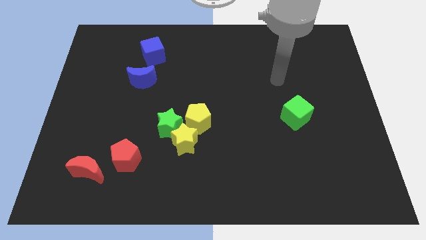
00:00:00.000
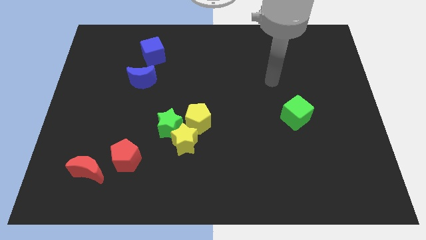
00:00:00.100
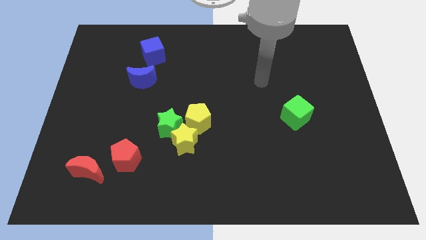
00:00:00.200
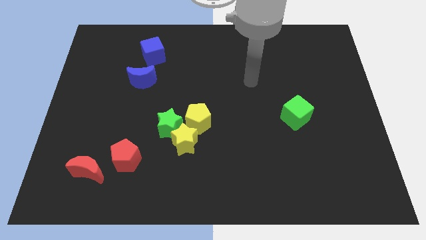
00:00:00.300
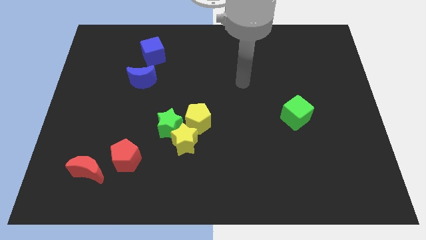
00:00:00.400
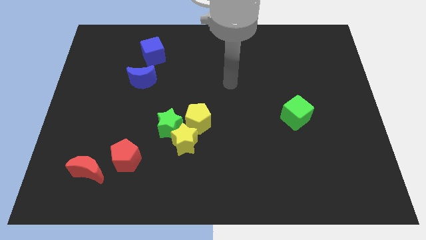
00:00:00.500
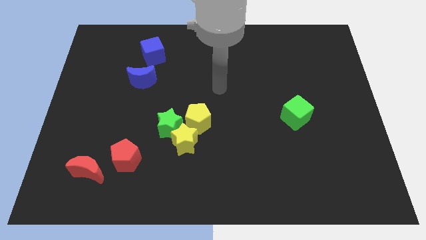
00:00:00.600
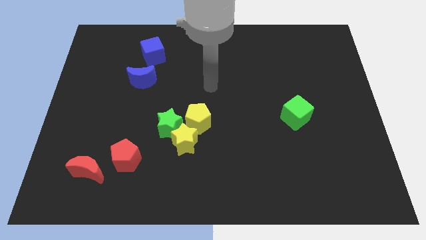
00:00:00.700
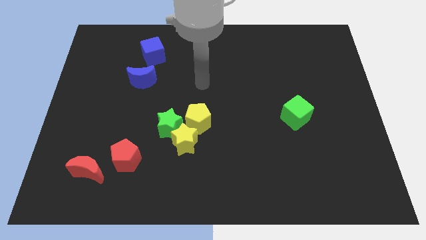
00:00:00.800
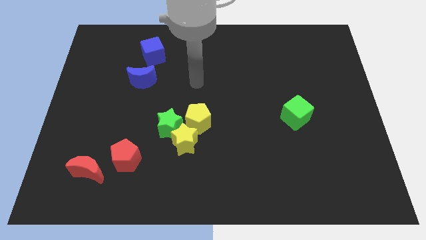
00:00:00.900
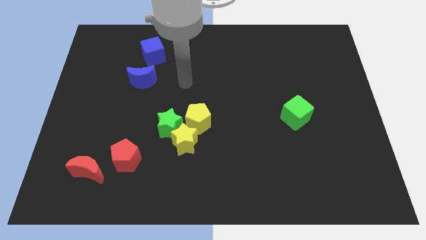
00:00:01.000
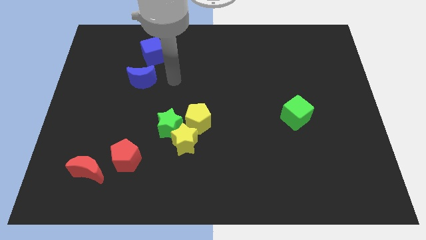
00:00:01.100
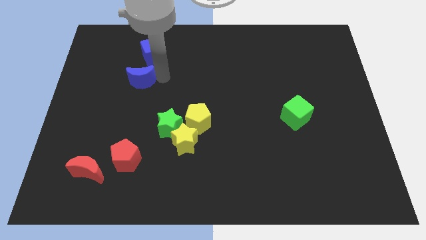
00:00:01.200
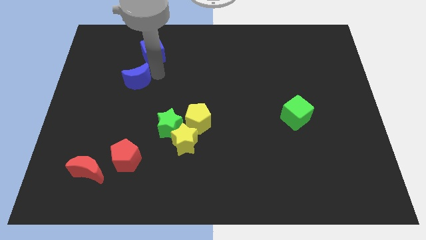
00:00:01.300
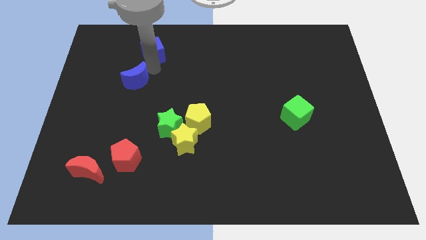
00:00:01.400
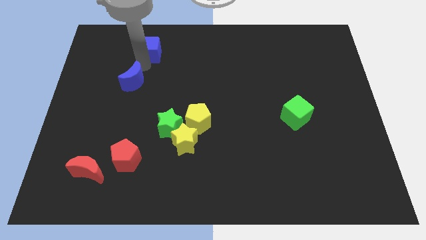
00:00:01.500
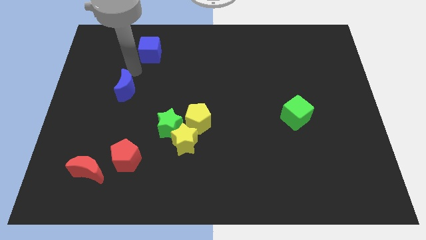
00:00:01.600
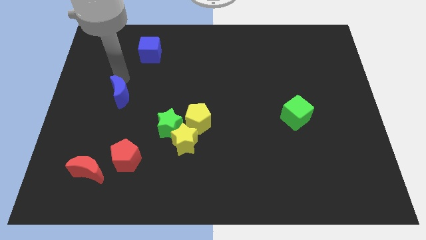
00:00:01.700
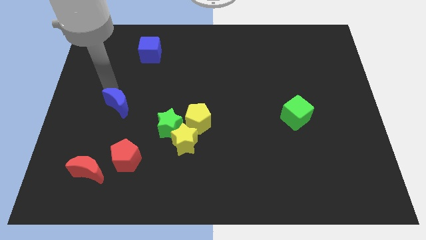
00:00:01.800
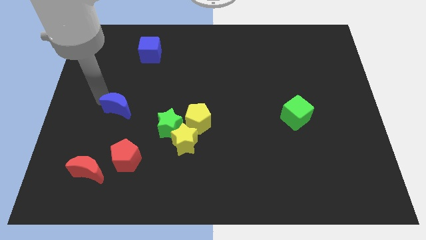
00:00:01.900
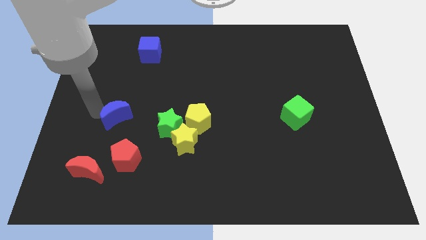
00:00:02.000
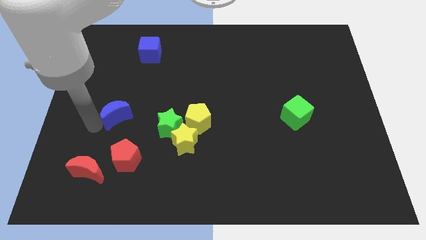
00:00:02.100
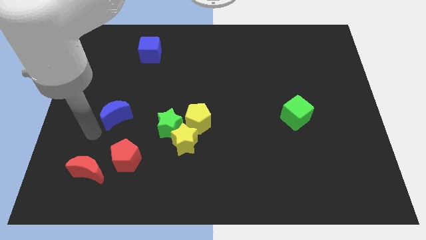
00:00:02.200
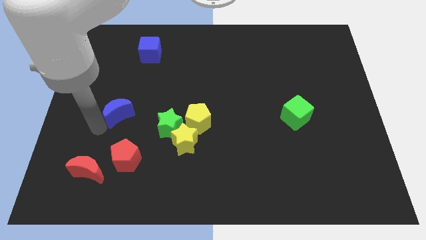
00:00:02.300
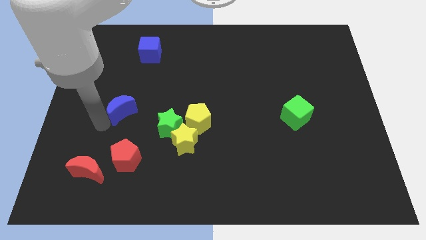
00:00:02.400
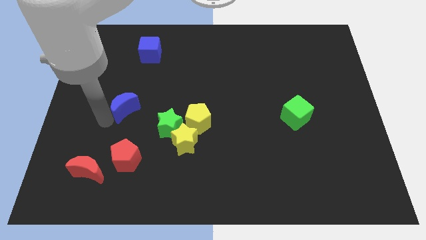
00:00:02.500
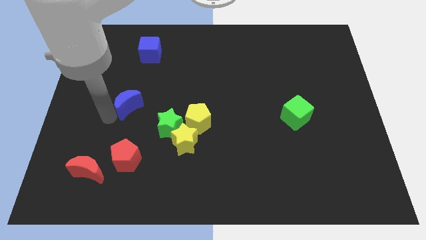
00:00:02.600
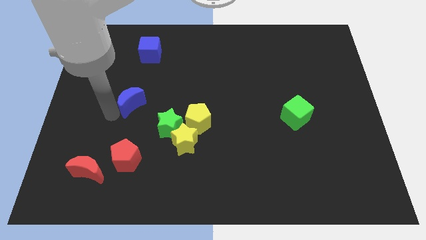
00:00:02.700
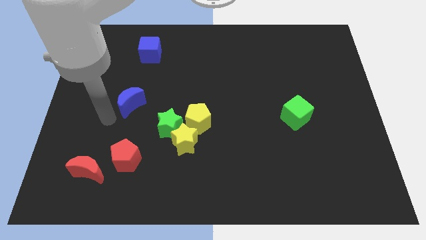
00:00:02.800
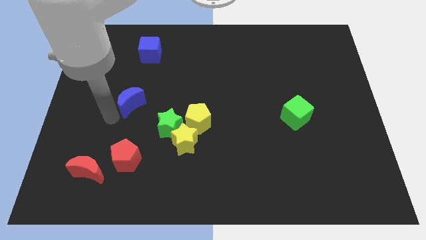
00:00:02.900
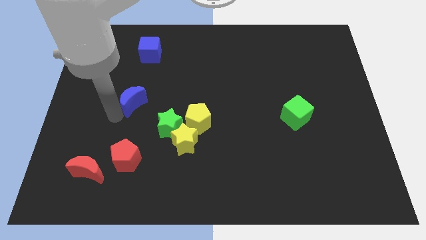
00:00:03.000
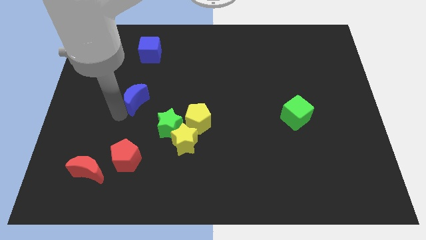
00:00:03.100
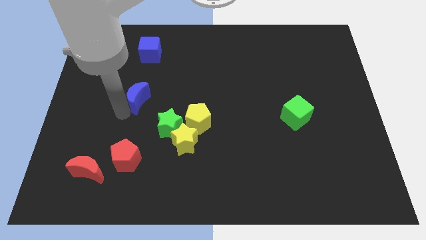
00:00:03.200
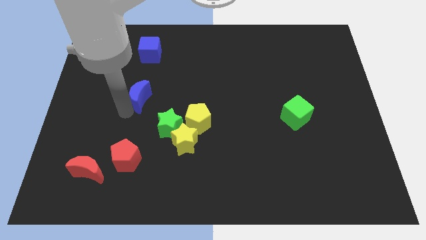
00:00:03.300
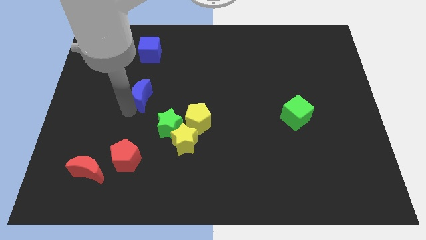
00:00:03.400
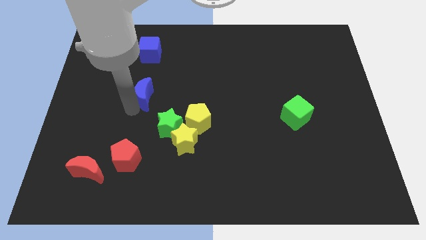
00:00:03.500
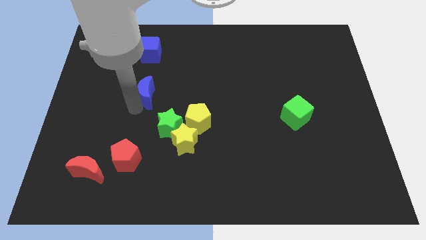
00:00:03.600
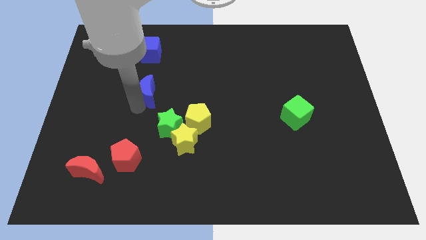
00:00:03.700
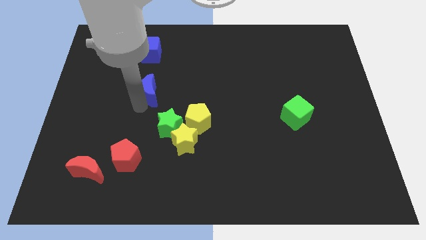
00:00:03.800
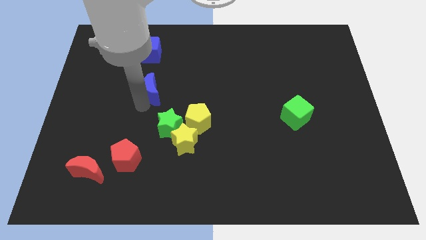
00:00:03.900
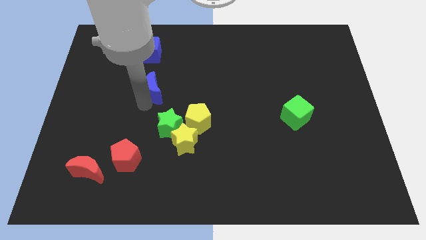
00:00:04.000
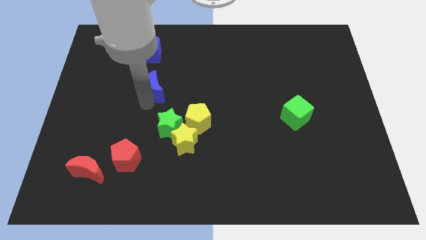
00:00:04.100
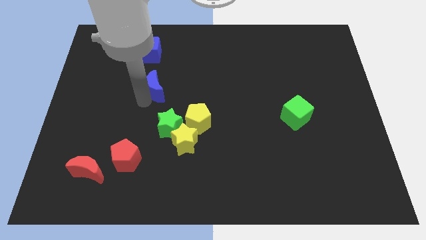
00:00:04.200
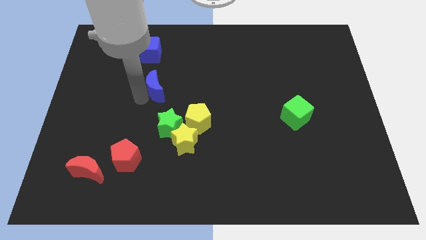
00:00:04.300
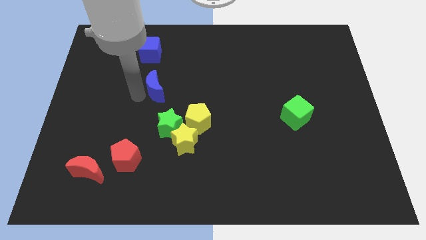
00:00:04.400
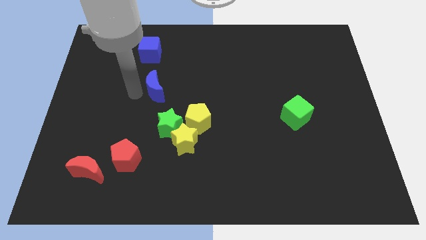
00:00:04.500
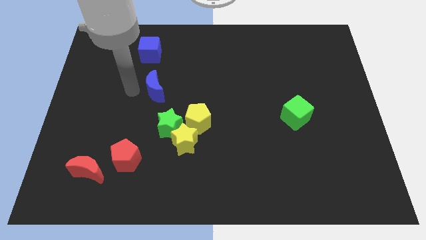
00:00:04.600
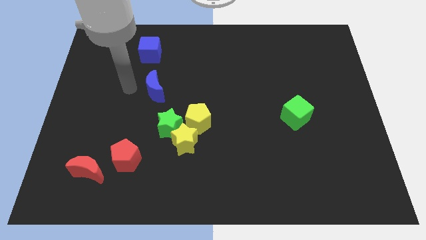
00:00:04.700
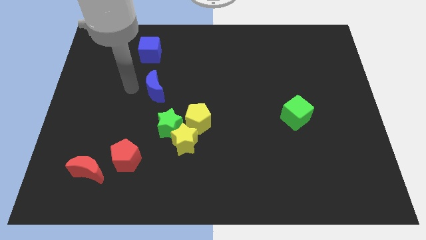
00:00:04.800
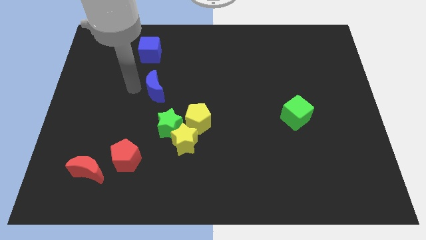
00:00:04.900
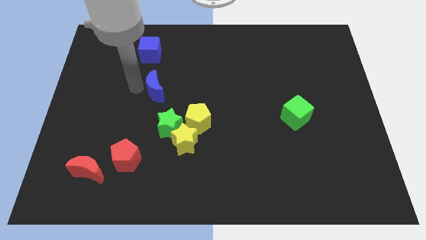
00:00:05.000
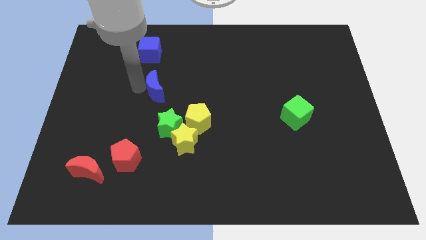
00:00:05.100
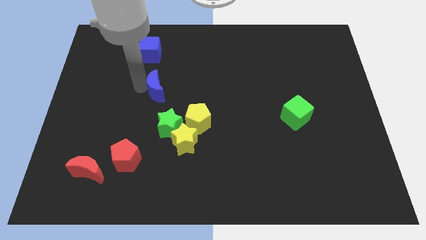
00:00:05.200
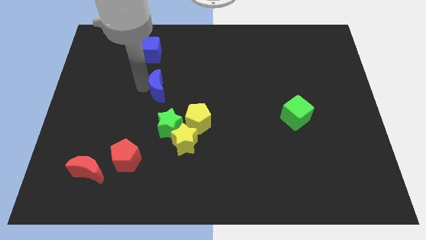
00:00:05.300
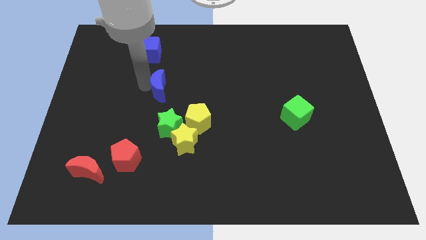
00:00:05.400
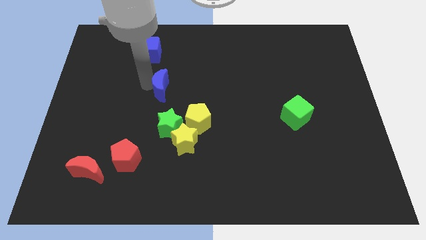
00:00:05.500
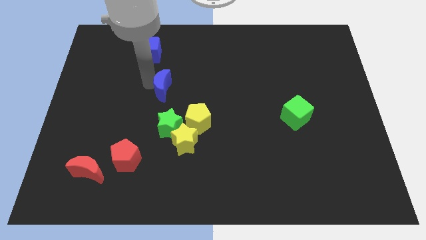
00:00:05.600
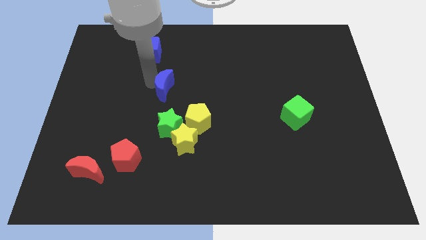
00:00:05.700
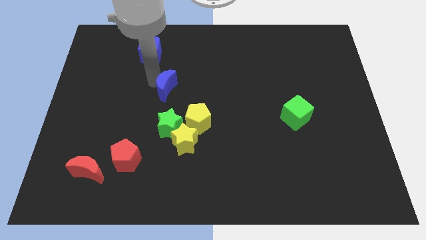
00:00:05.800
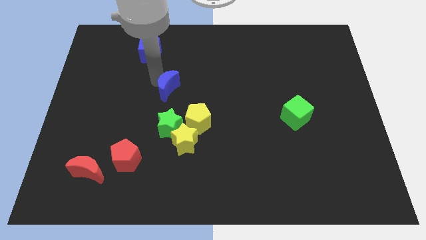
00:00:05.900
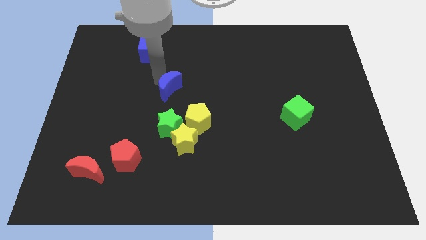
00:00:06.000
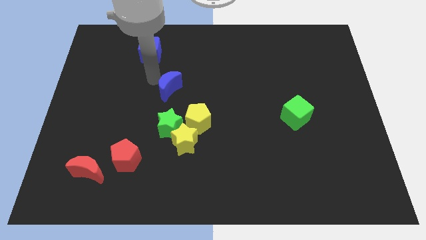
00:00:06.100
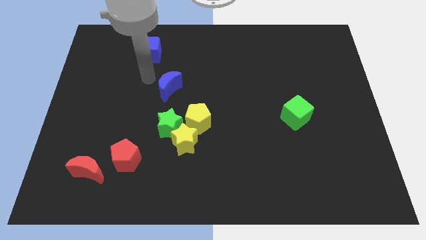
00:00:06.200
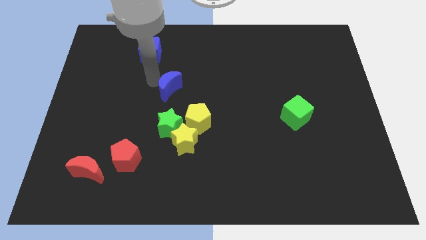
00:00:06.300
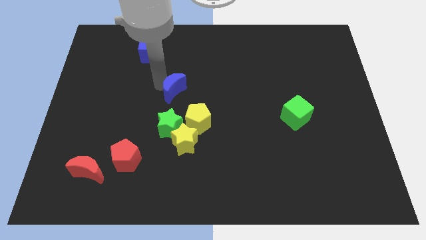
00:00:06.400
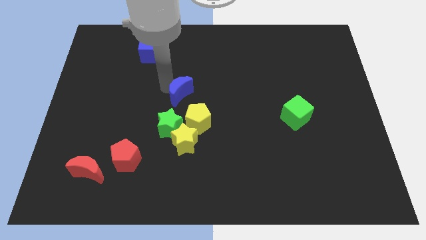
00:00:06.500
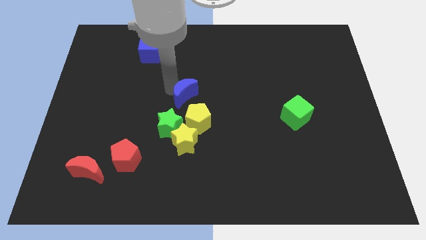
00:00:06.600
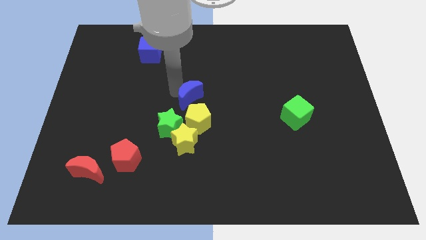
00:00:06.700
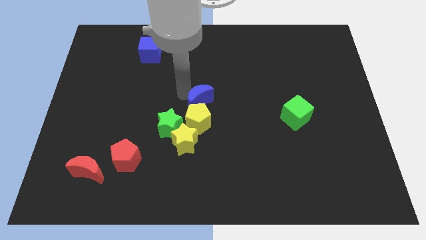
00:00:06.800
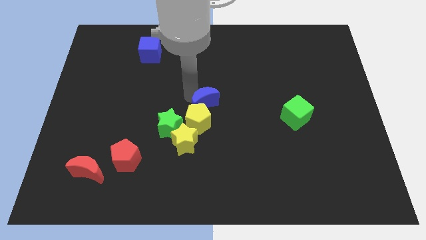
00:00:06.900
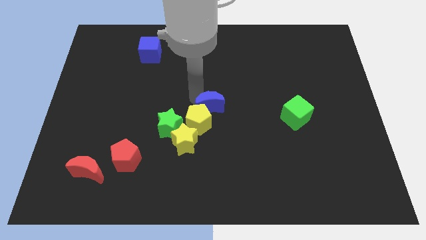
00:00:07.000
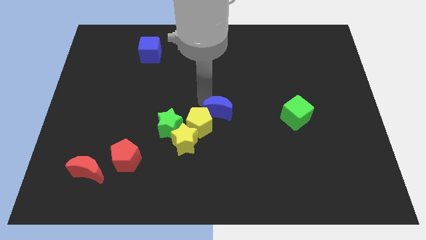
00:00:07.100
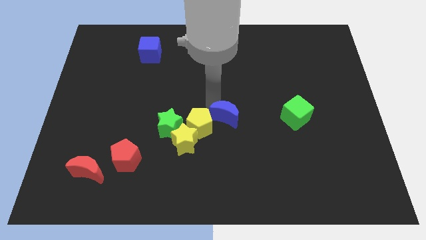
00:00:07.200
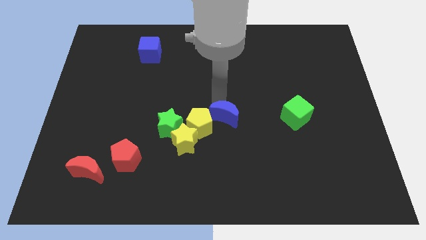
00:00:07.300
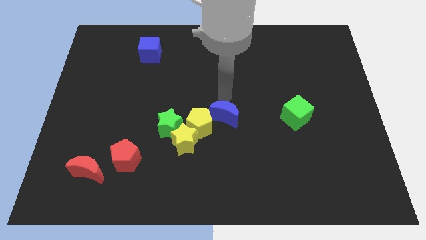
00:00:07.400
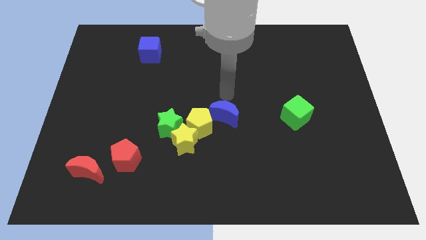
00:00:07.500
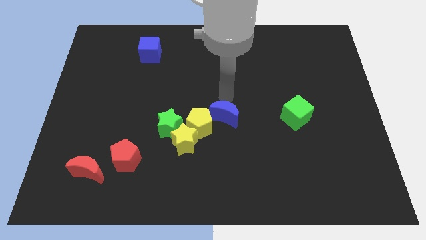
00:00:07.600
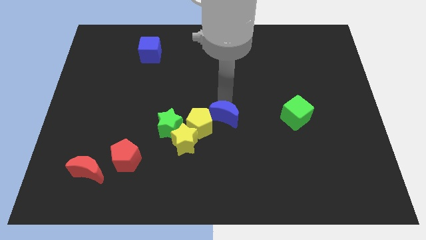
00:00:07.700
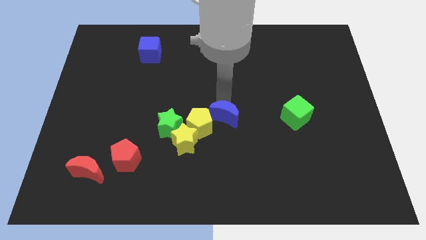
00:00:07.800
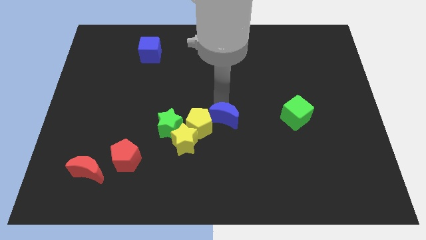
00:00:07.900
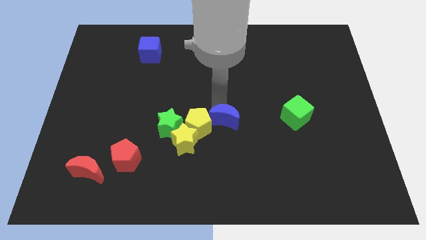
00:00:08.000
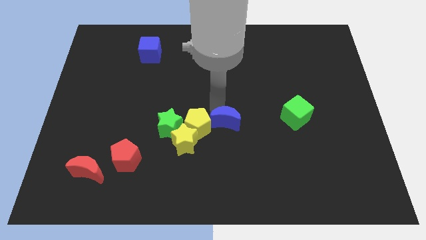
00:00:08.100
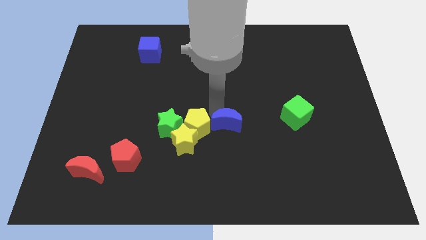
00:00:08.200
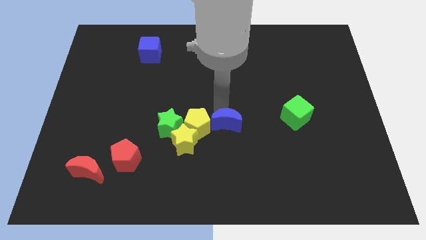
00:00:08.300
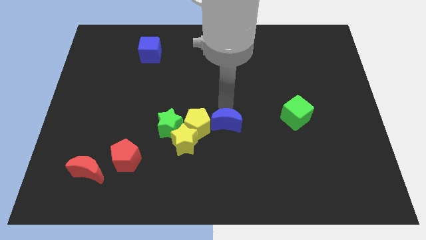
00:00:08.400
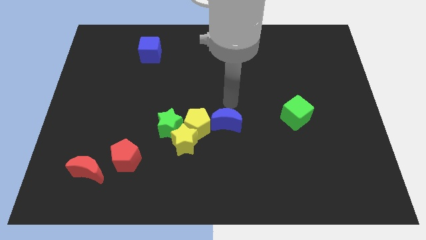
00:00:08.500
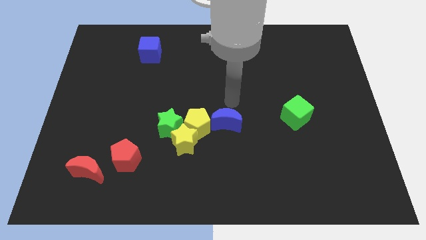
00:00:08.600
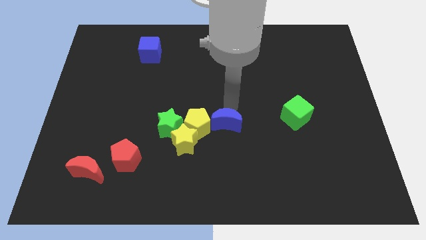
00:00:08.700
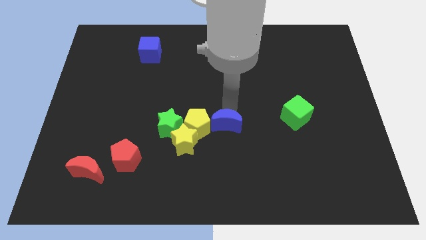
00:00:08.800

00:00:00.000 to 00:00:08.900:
move the blue moon diagonally down and to the right of the yellow pentagon
